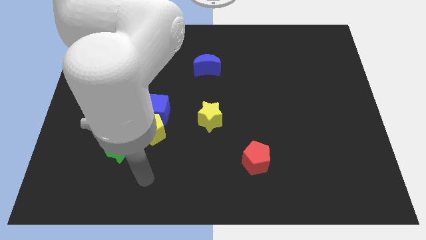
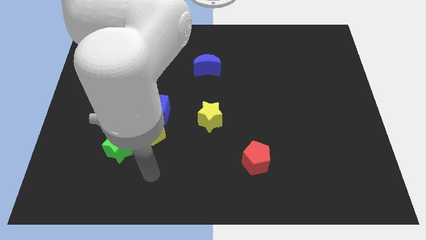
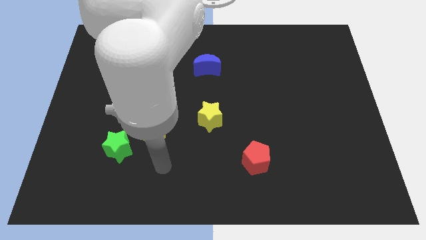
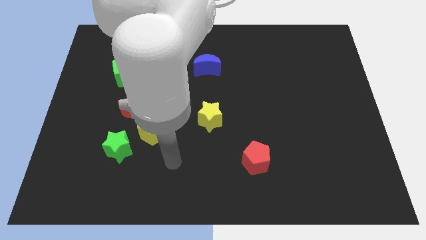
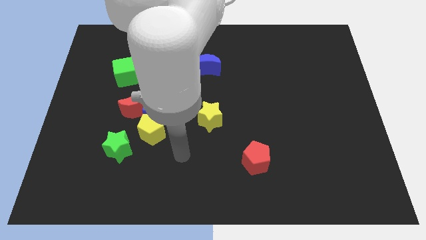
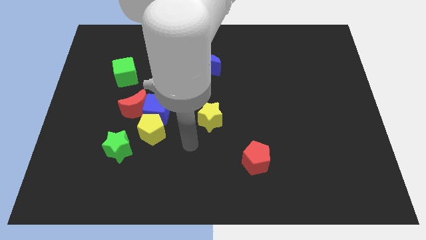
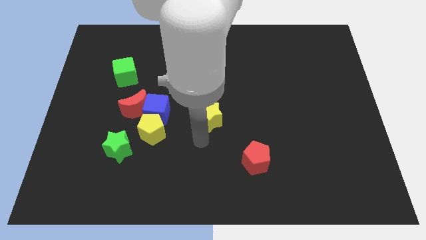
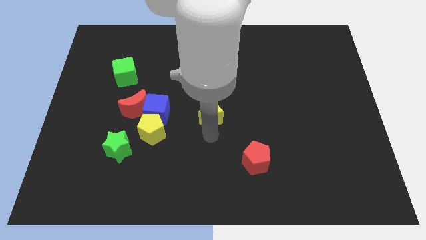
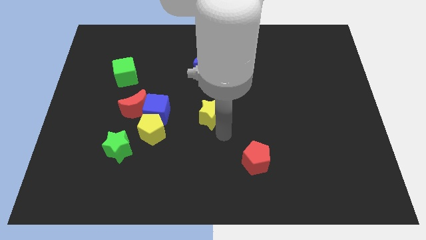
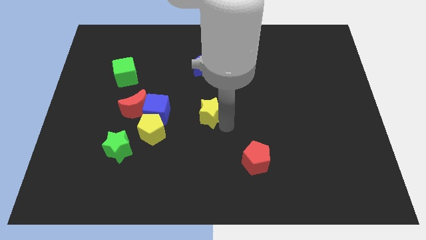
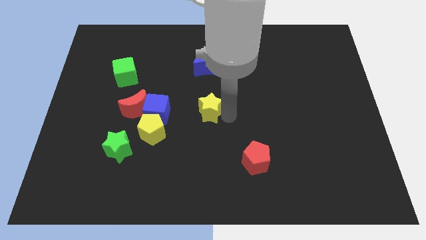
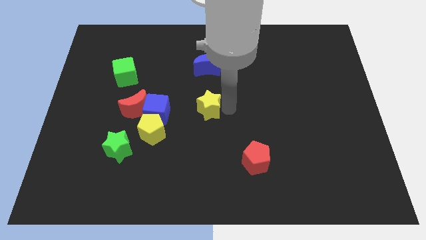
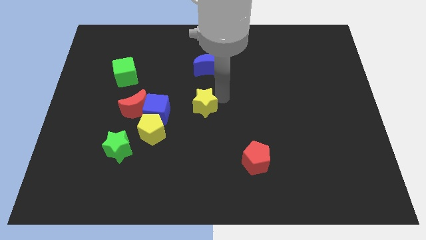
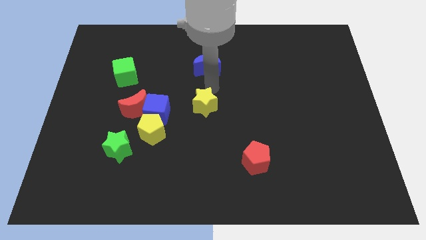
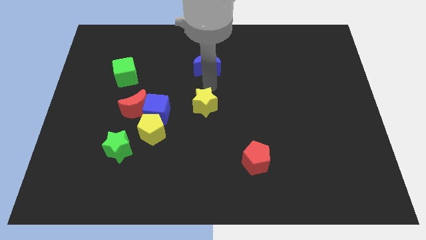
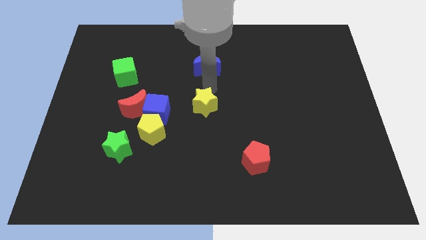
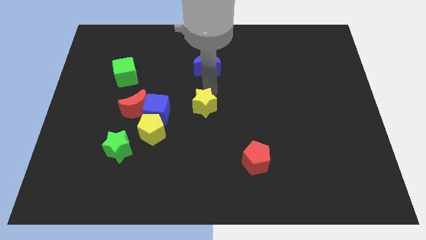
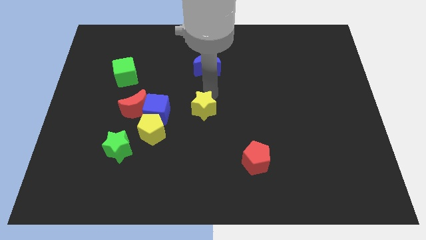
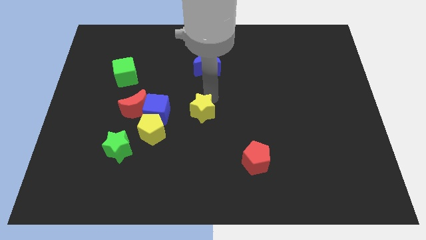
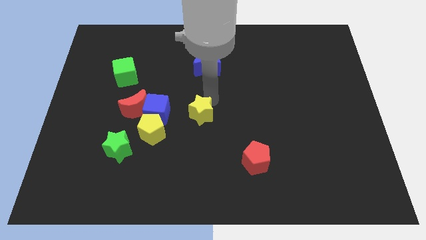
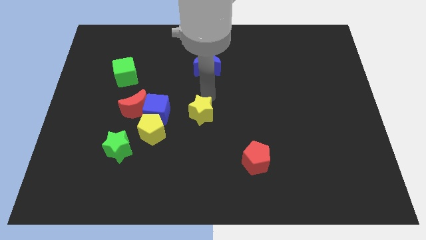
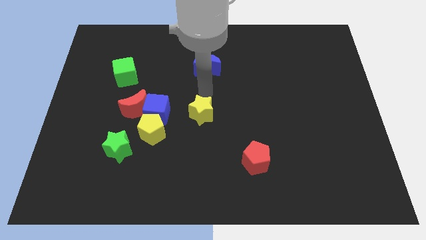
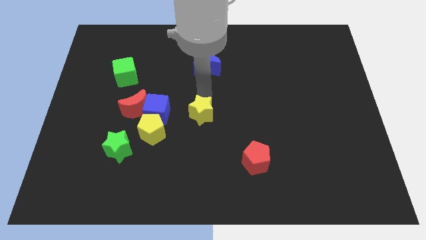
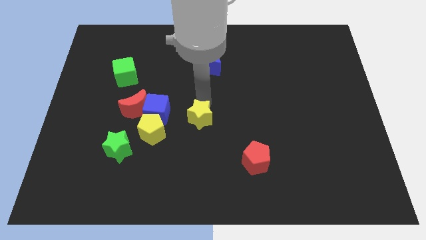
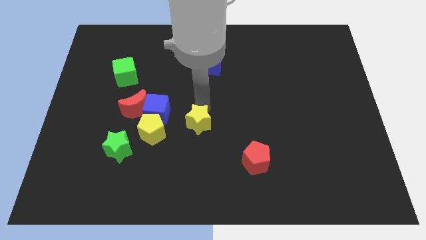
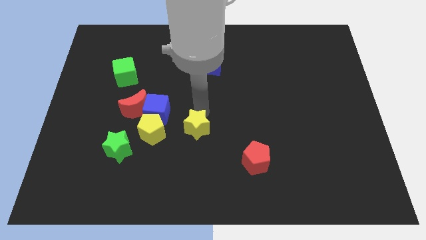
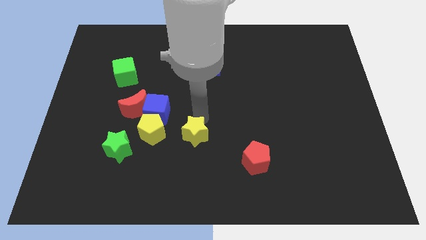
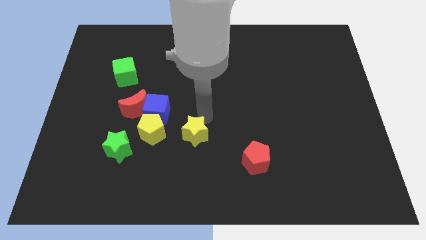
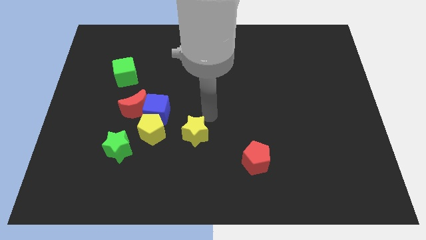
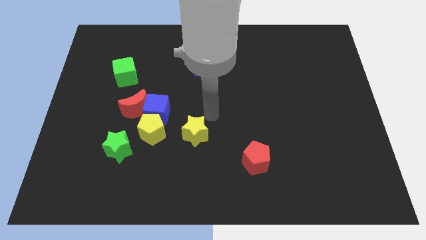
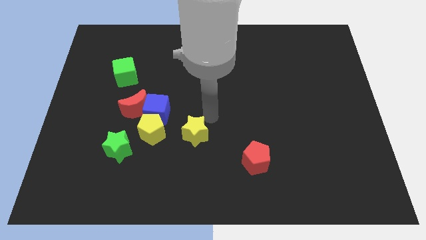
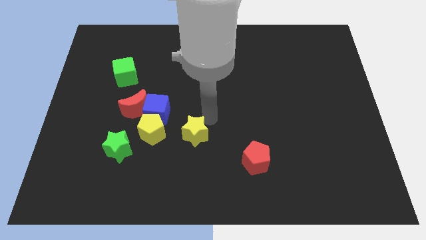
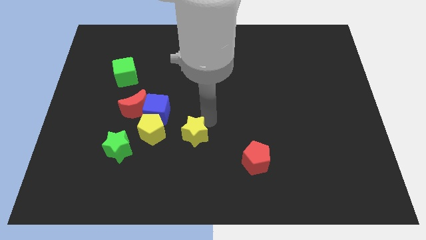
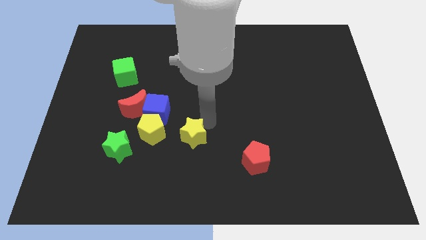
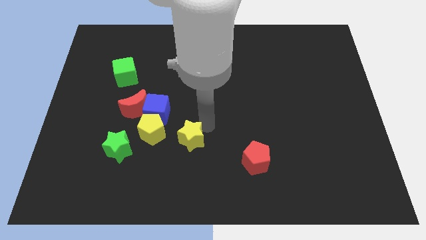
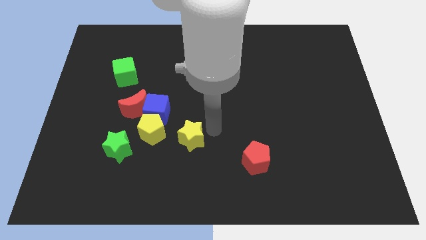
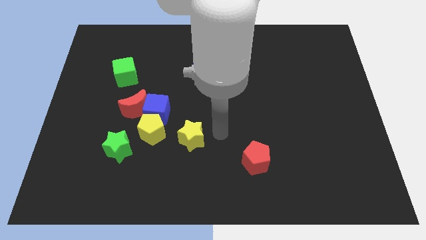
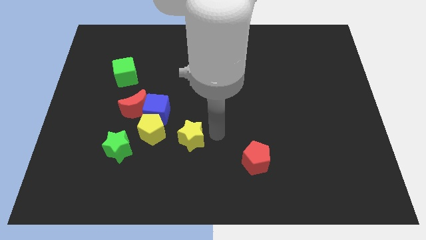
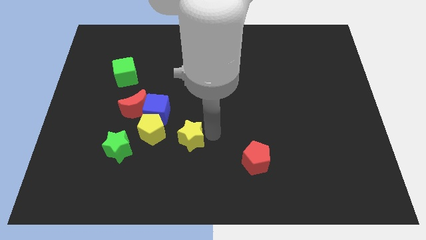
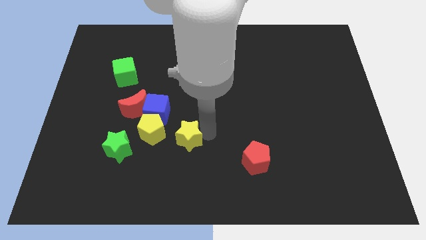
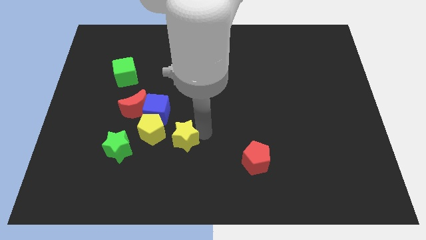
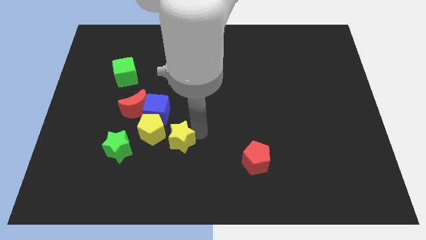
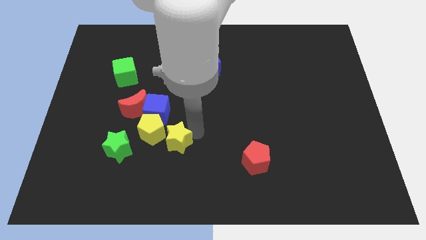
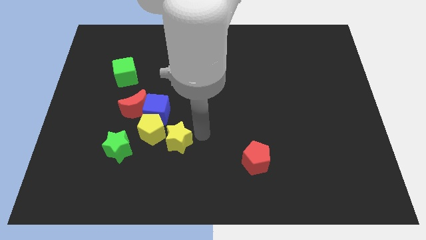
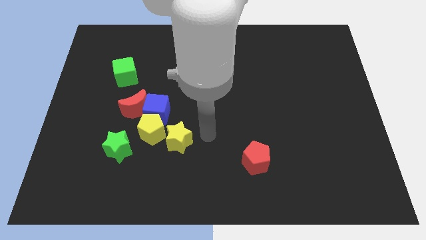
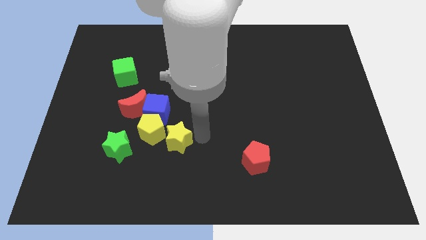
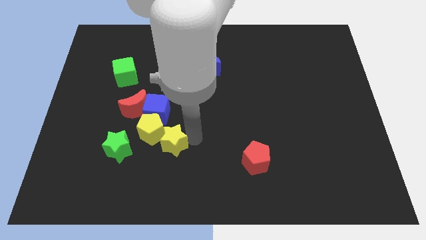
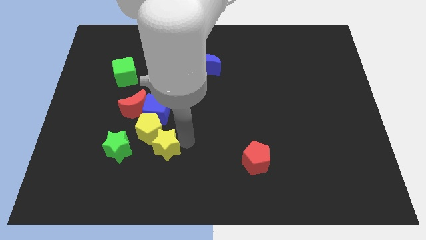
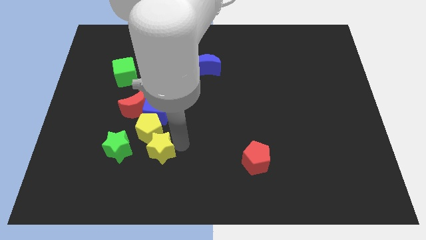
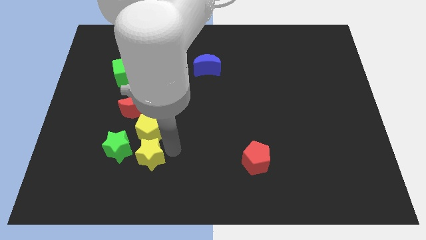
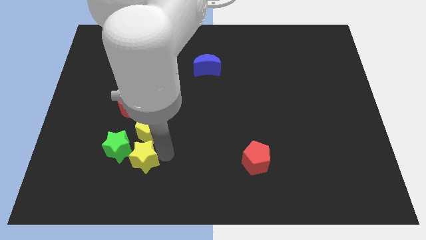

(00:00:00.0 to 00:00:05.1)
put the yellow star towards the green star

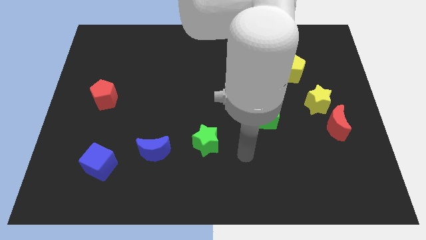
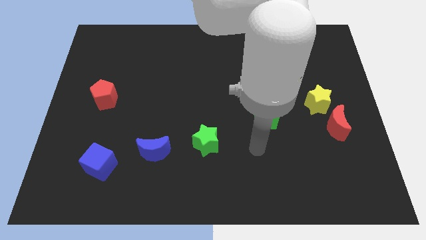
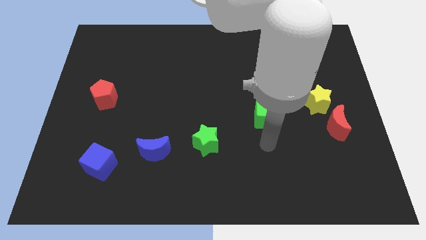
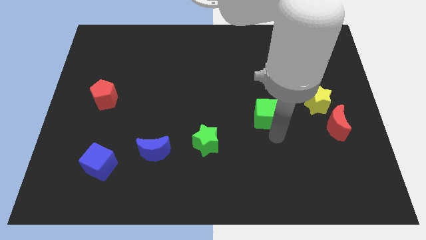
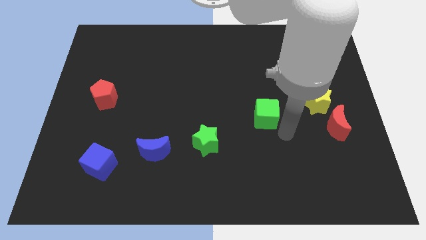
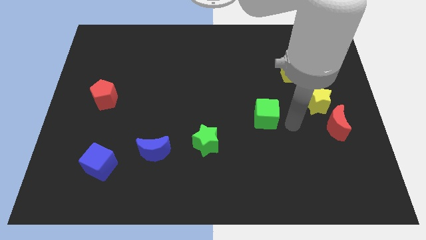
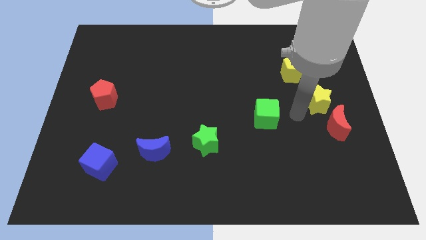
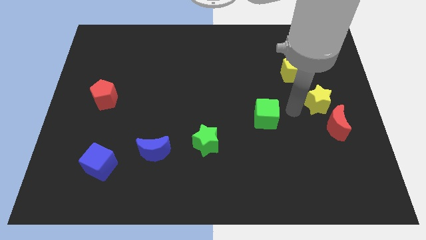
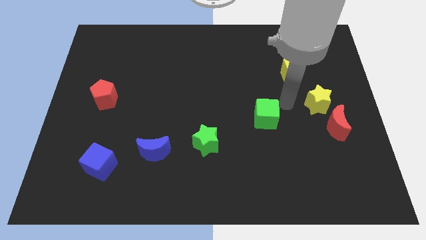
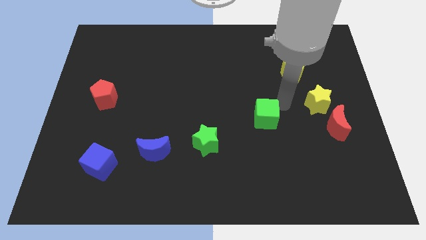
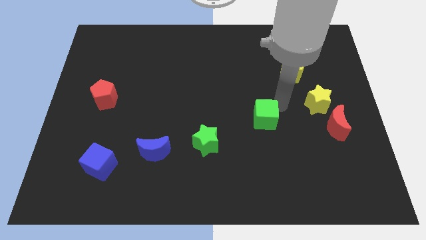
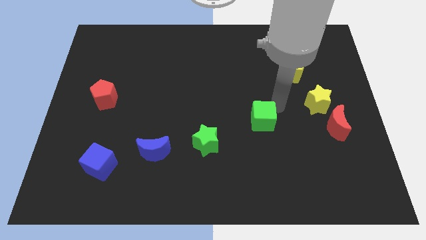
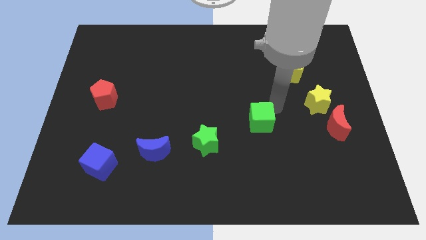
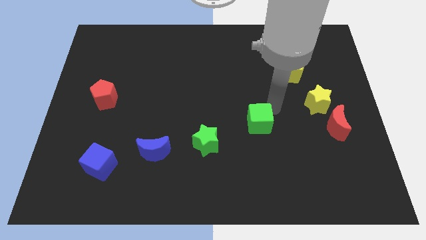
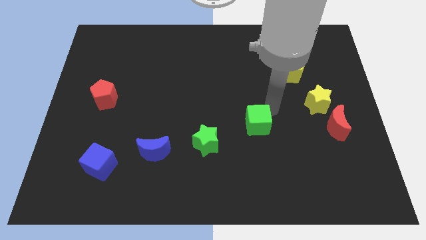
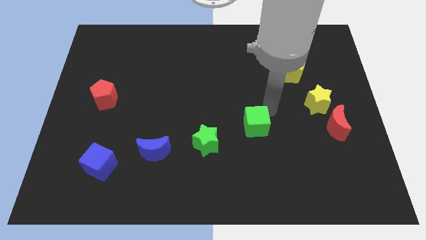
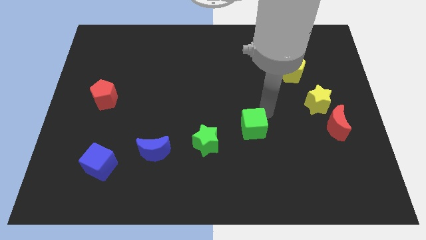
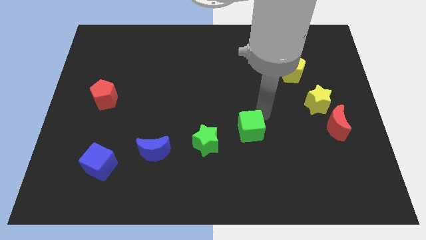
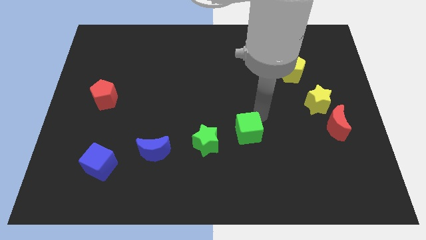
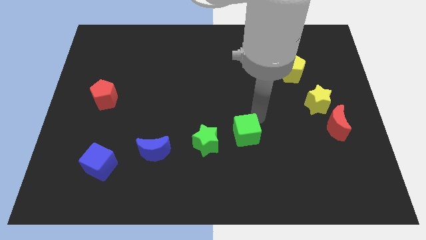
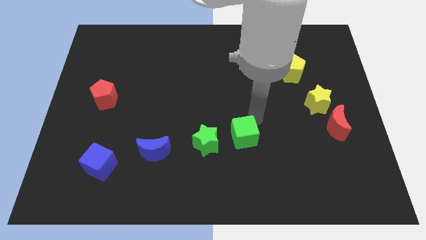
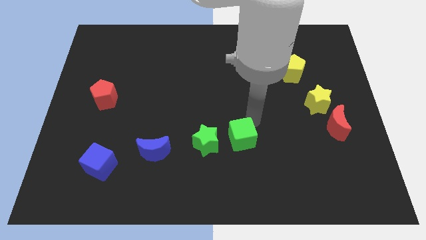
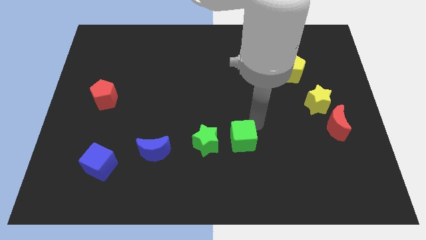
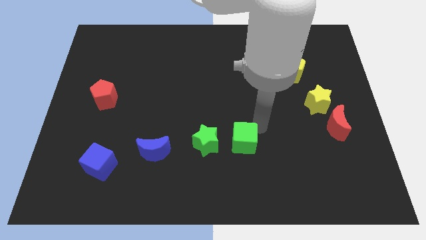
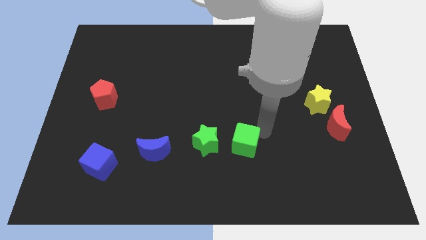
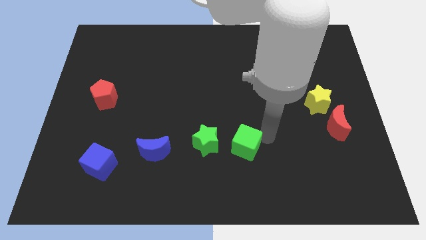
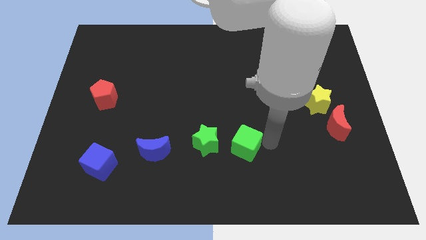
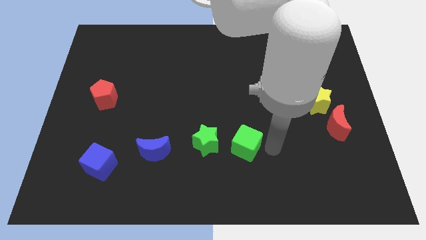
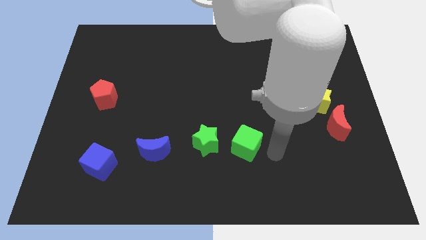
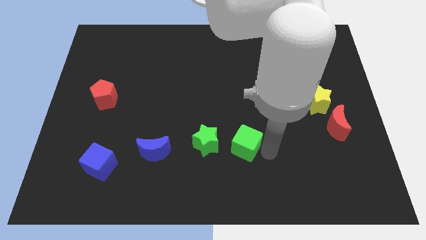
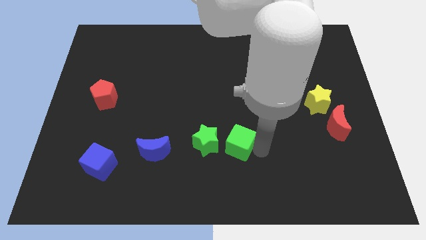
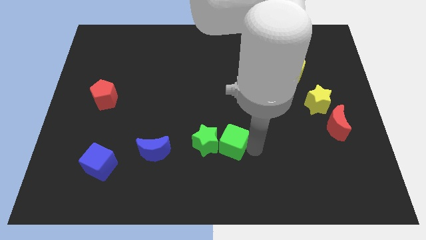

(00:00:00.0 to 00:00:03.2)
move the green cube close to the green star
